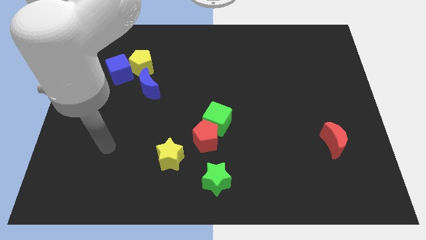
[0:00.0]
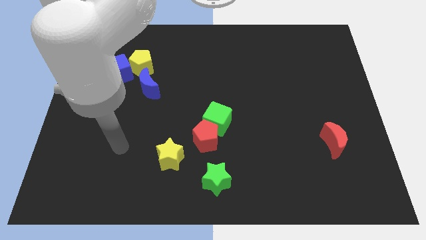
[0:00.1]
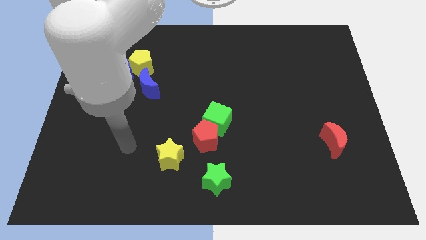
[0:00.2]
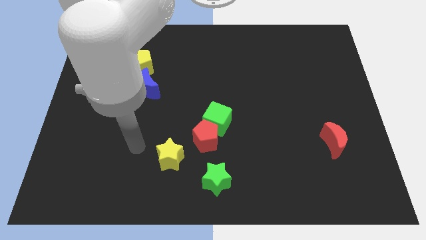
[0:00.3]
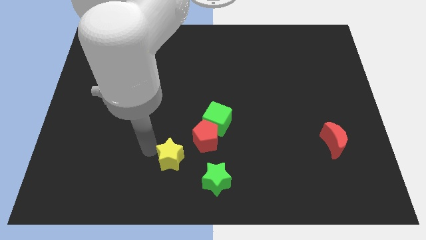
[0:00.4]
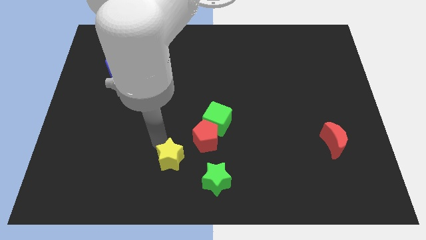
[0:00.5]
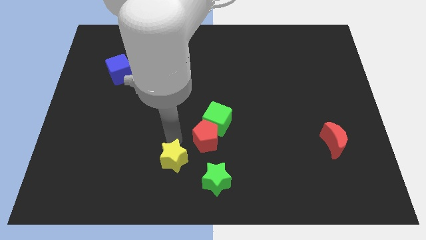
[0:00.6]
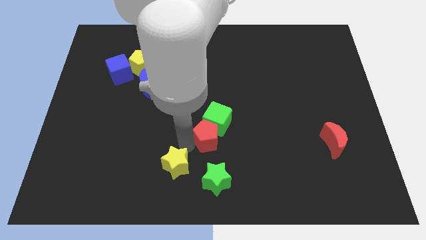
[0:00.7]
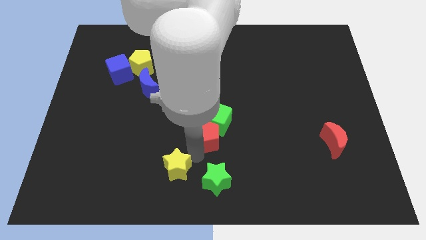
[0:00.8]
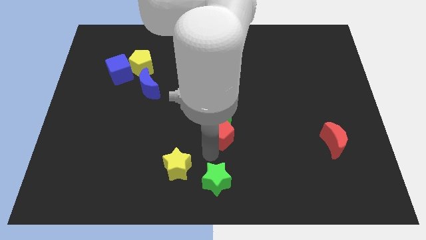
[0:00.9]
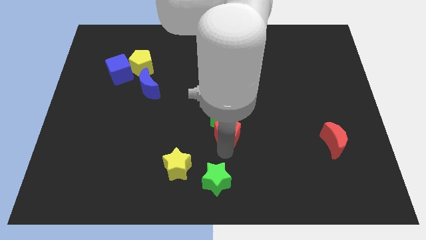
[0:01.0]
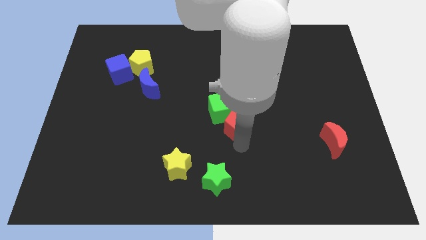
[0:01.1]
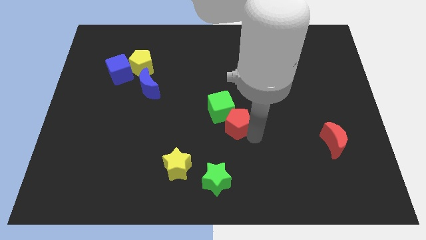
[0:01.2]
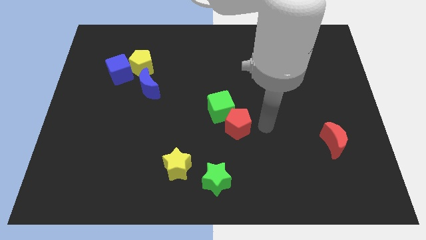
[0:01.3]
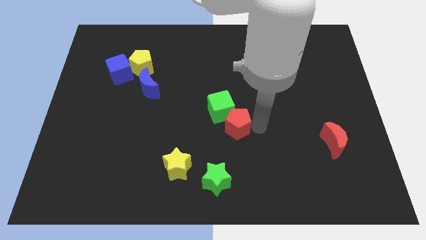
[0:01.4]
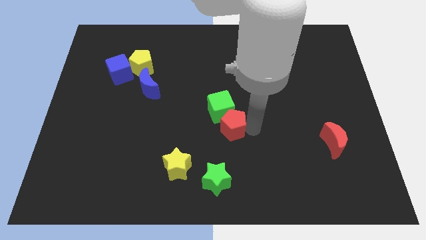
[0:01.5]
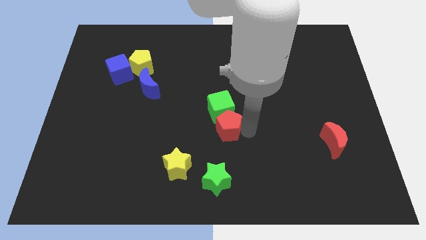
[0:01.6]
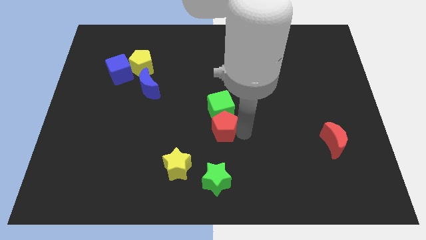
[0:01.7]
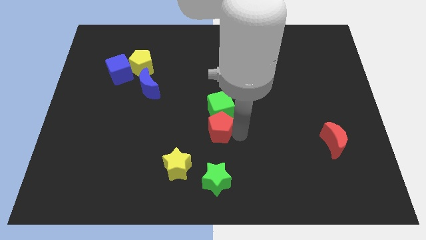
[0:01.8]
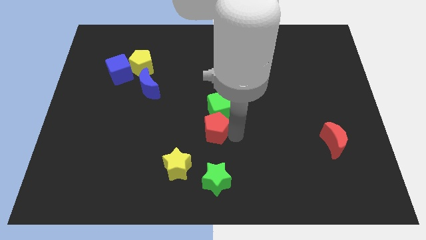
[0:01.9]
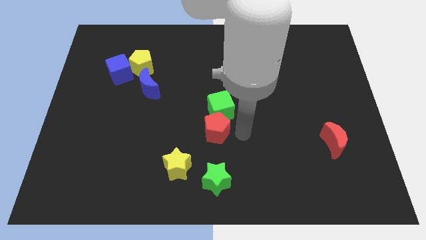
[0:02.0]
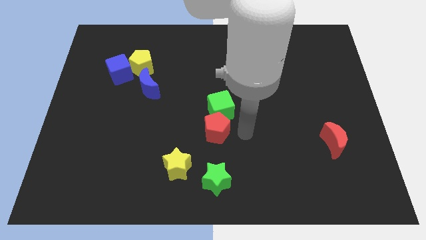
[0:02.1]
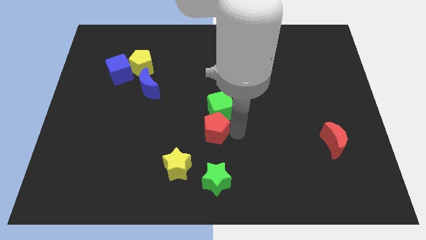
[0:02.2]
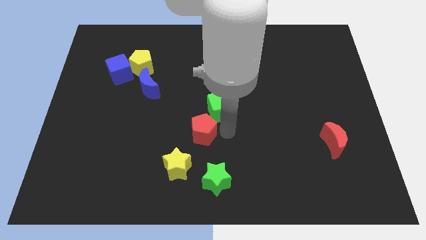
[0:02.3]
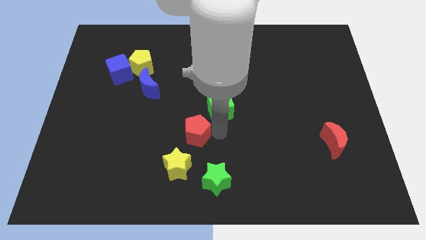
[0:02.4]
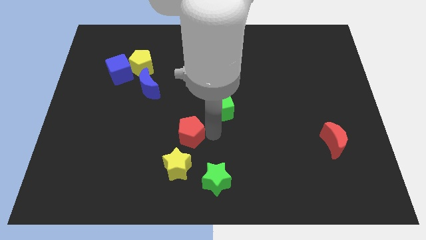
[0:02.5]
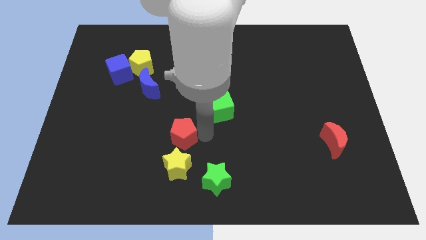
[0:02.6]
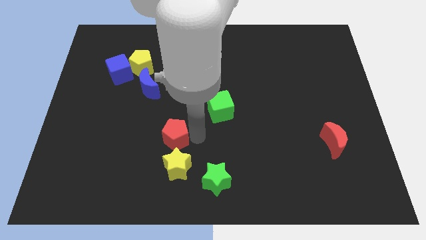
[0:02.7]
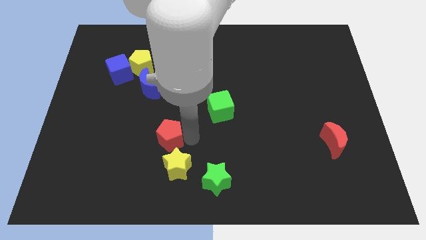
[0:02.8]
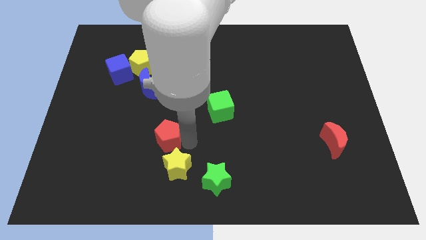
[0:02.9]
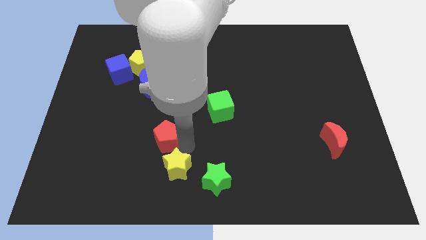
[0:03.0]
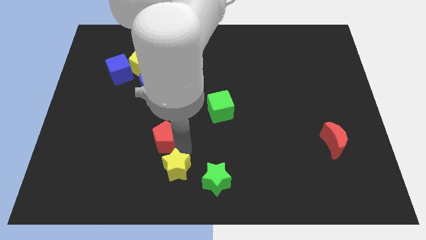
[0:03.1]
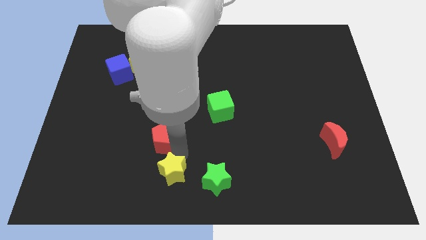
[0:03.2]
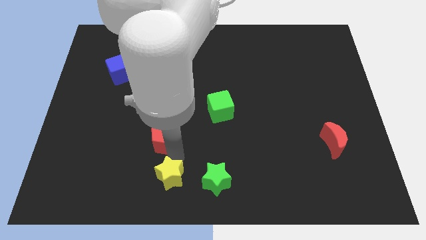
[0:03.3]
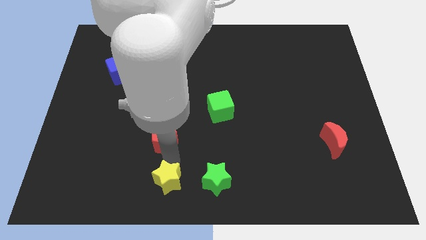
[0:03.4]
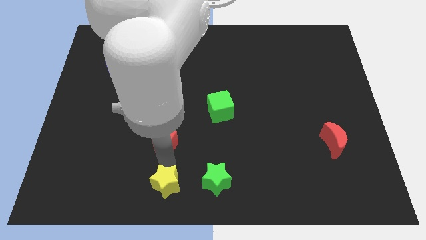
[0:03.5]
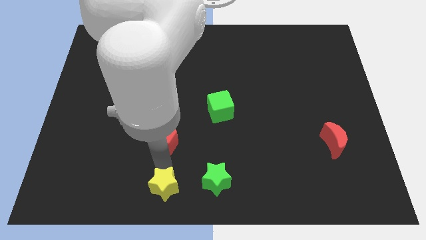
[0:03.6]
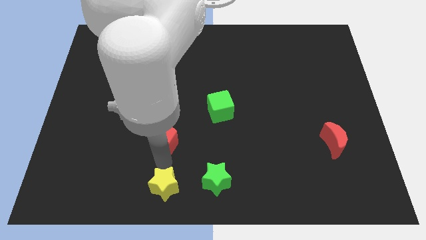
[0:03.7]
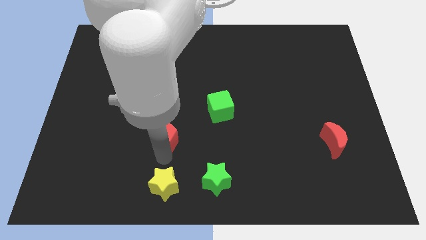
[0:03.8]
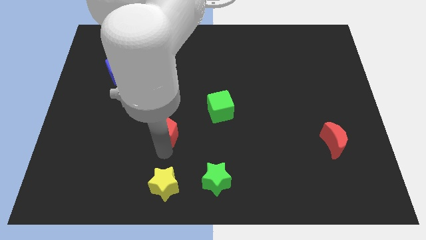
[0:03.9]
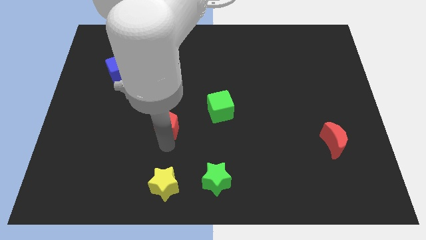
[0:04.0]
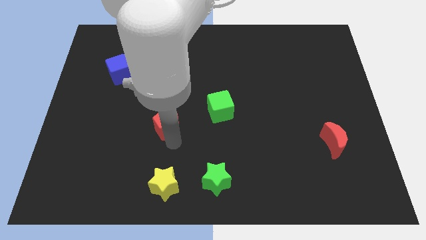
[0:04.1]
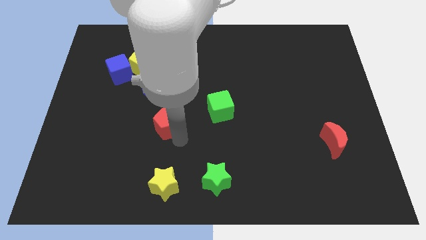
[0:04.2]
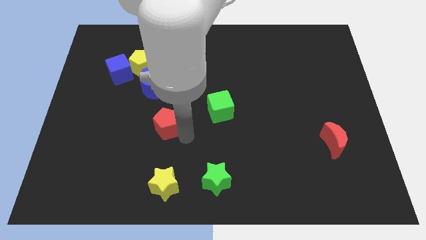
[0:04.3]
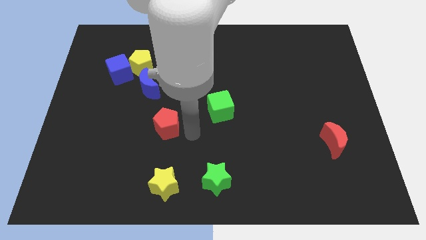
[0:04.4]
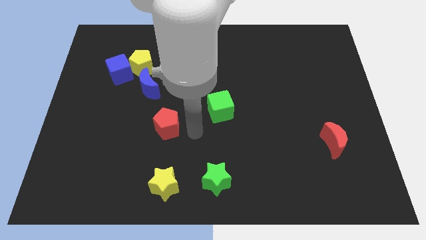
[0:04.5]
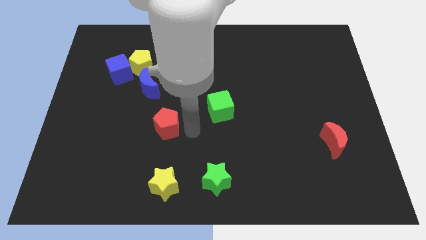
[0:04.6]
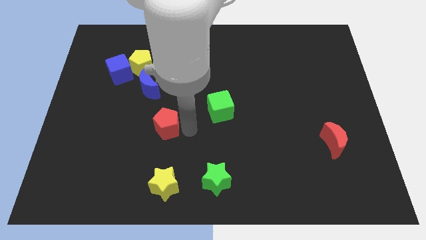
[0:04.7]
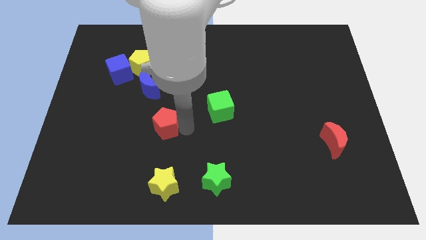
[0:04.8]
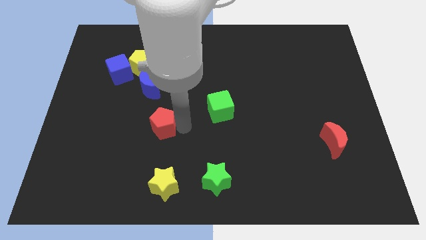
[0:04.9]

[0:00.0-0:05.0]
put the red pentagon to the bottom side of the blue moon

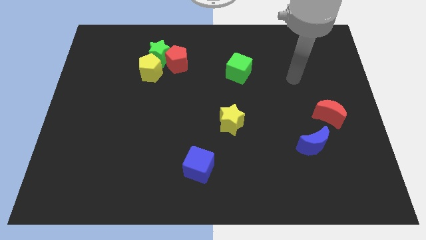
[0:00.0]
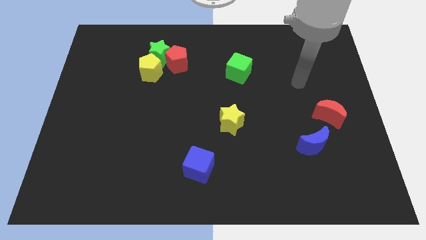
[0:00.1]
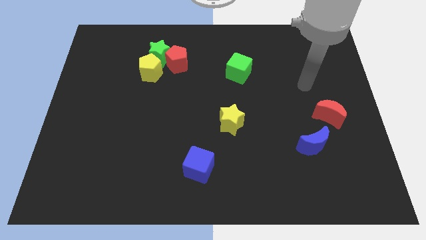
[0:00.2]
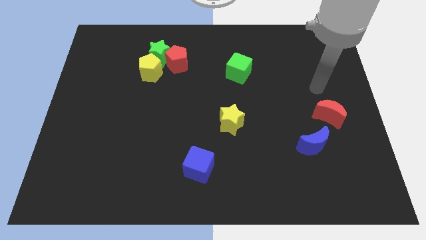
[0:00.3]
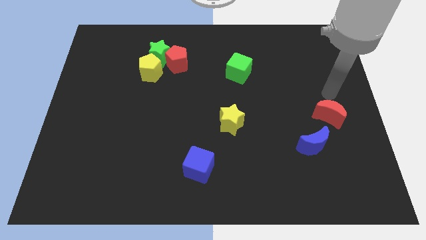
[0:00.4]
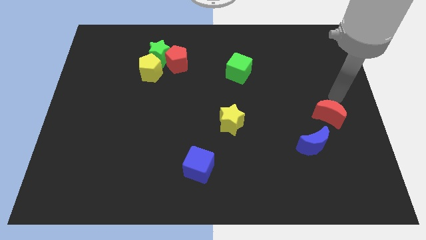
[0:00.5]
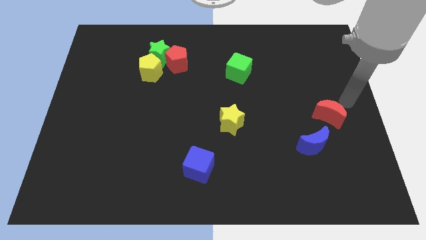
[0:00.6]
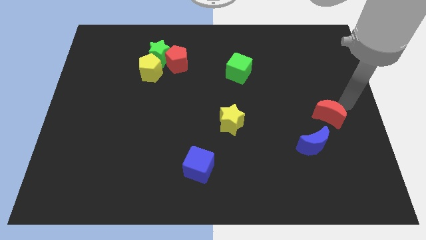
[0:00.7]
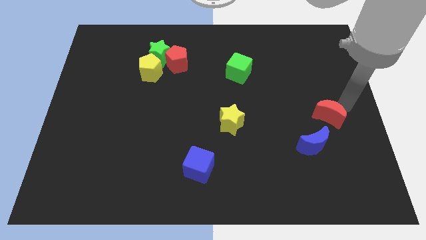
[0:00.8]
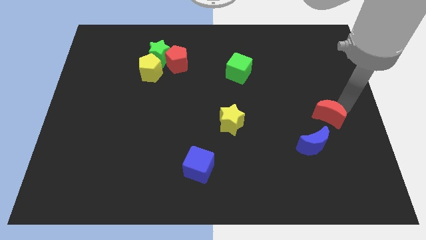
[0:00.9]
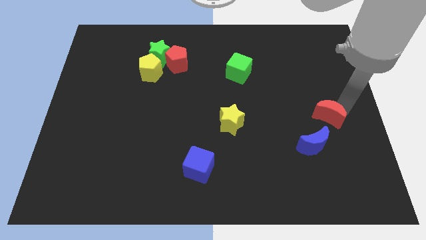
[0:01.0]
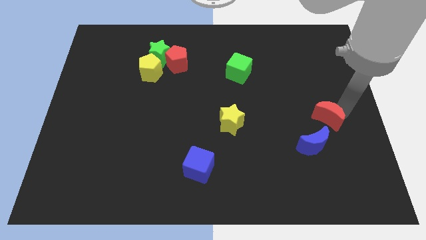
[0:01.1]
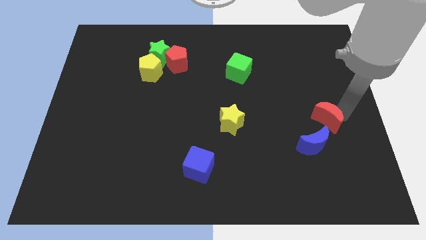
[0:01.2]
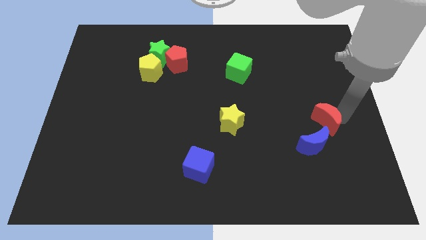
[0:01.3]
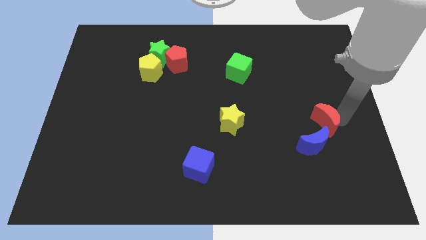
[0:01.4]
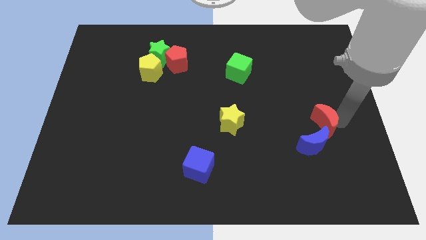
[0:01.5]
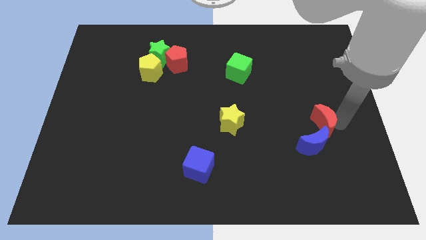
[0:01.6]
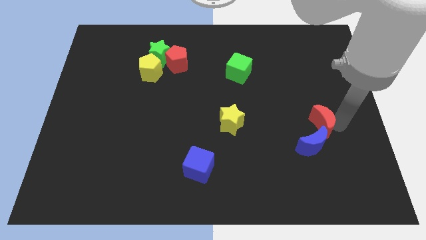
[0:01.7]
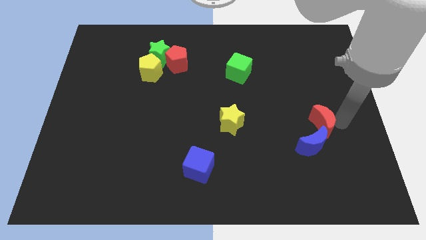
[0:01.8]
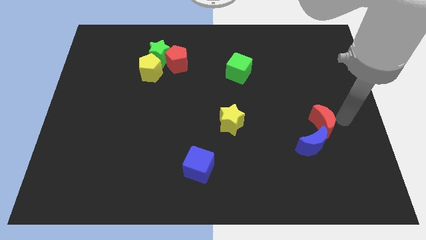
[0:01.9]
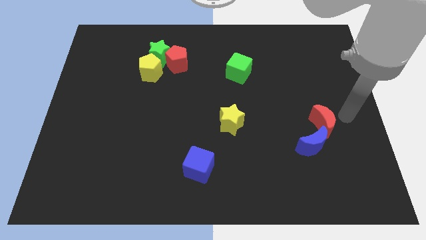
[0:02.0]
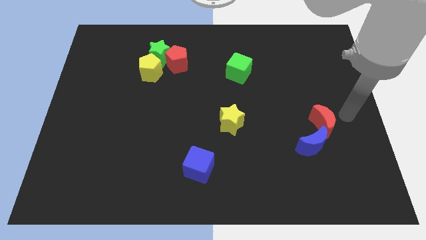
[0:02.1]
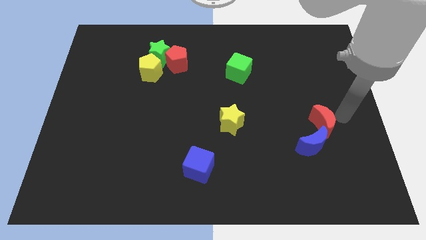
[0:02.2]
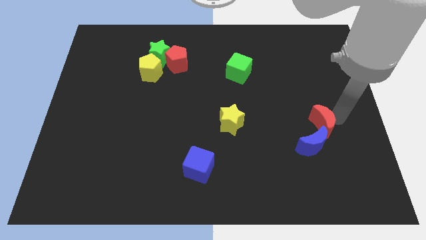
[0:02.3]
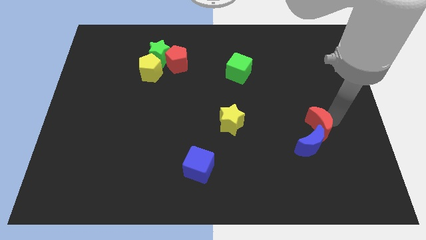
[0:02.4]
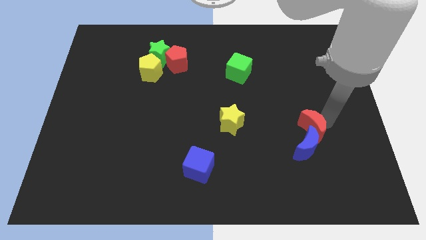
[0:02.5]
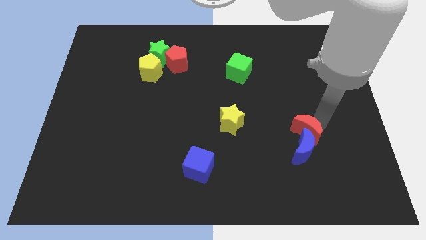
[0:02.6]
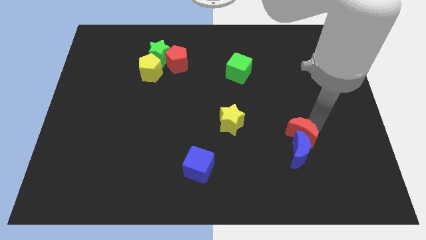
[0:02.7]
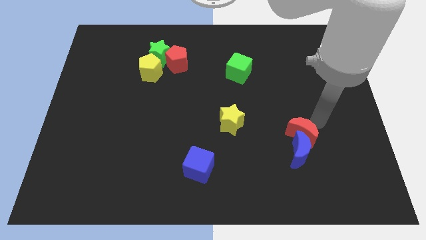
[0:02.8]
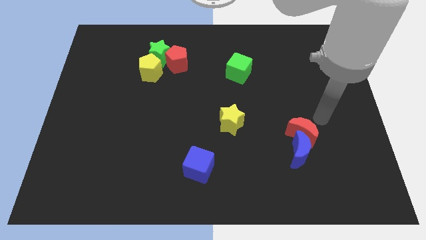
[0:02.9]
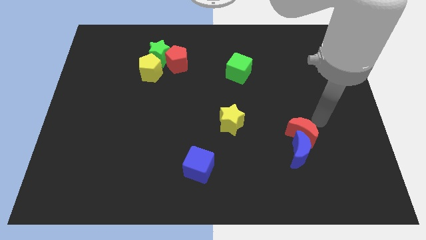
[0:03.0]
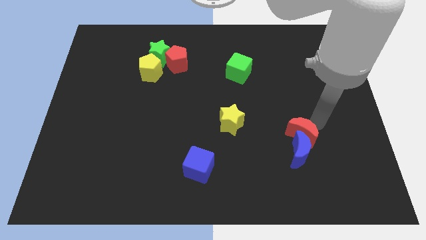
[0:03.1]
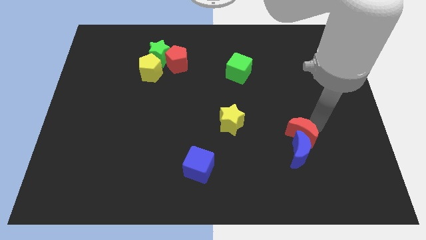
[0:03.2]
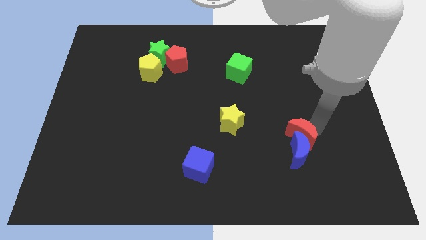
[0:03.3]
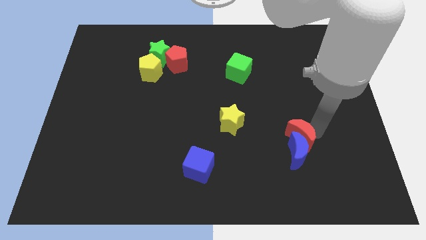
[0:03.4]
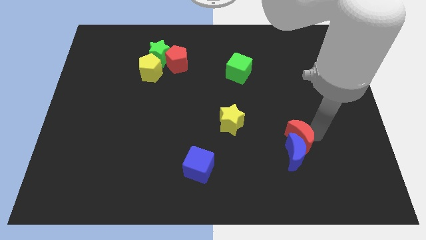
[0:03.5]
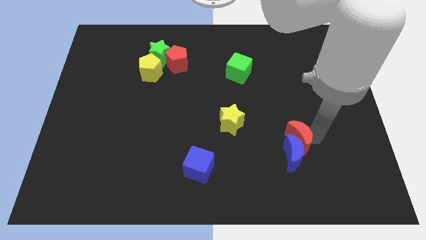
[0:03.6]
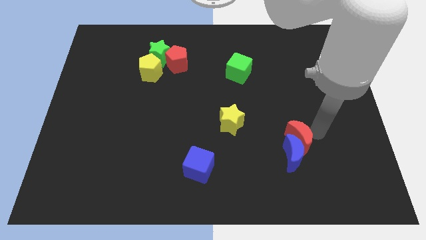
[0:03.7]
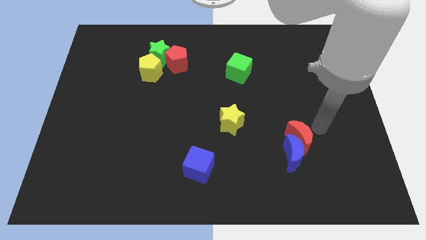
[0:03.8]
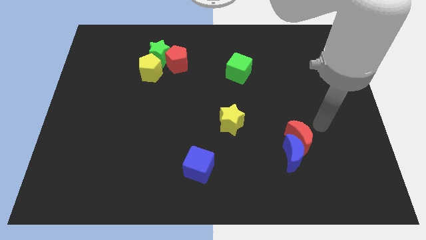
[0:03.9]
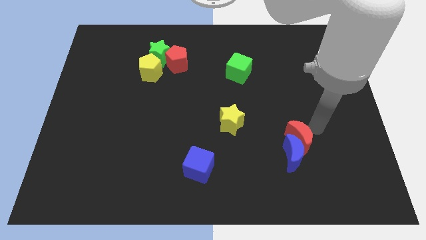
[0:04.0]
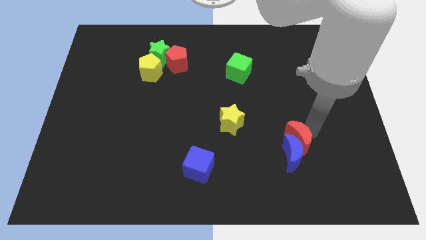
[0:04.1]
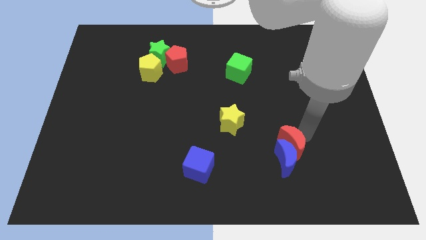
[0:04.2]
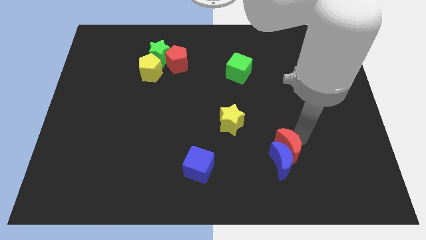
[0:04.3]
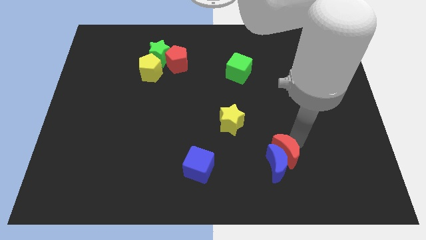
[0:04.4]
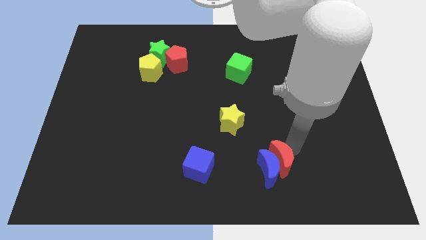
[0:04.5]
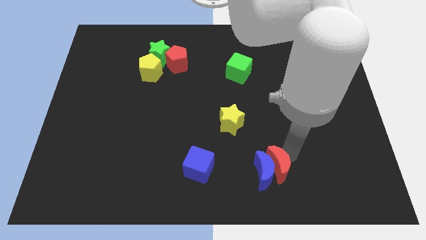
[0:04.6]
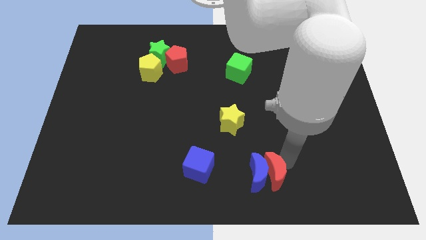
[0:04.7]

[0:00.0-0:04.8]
move the red moon just right of the blue cube
